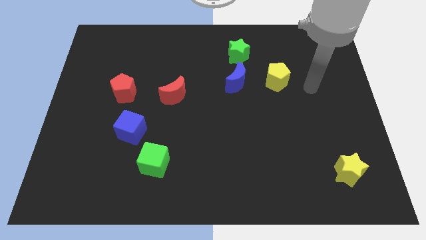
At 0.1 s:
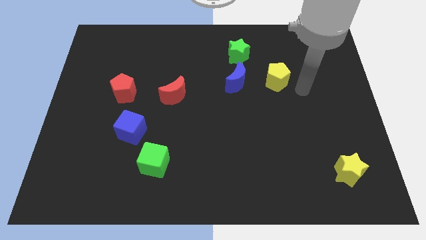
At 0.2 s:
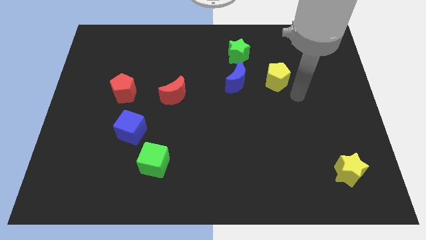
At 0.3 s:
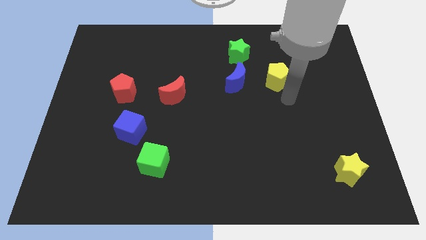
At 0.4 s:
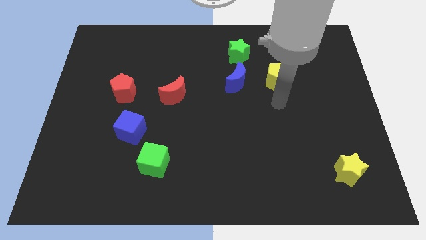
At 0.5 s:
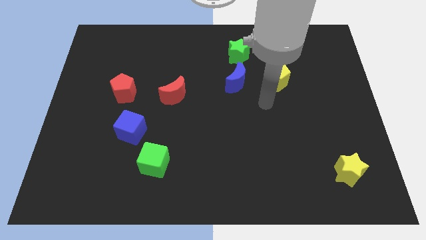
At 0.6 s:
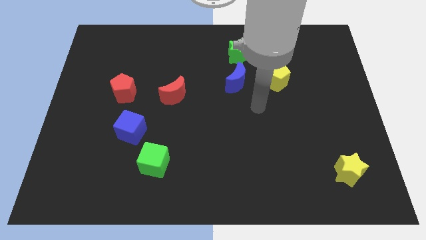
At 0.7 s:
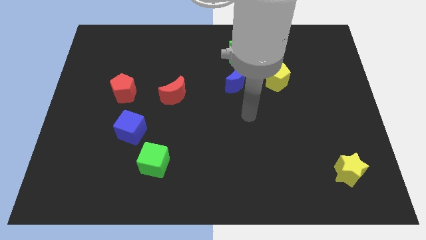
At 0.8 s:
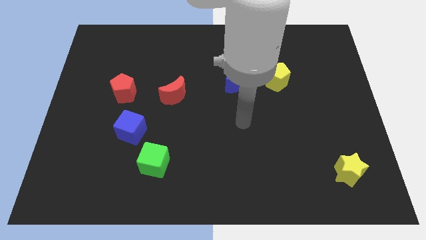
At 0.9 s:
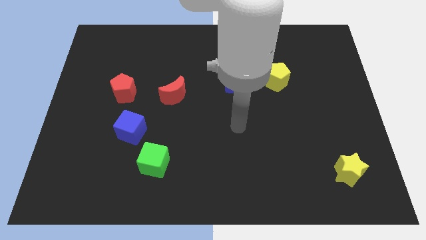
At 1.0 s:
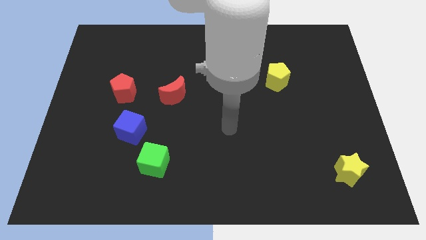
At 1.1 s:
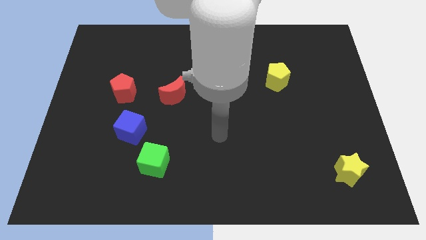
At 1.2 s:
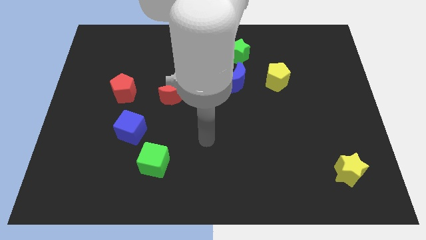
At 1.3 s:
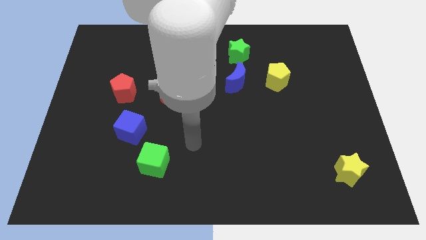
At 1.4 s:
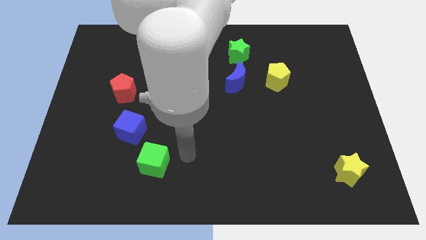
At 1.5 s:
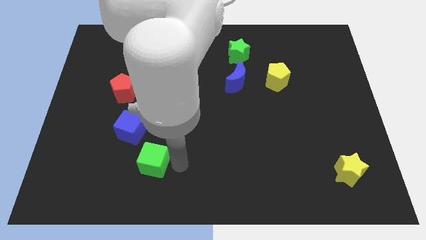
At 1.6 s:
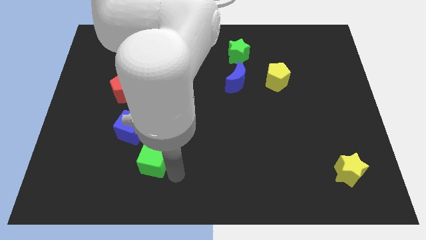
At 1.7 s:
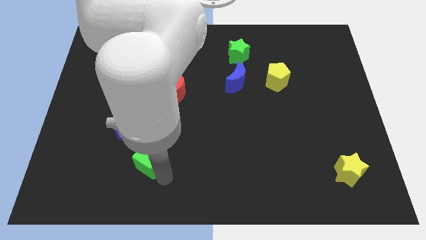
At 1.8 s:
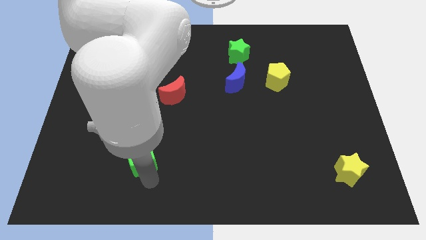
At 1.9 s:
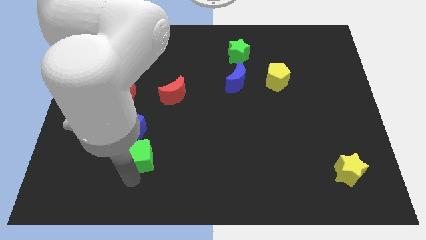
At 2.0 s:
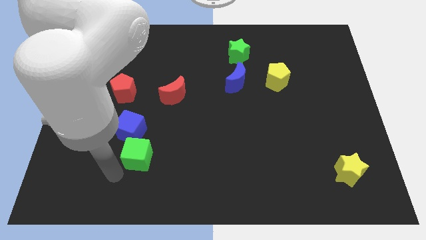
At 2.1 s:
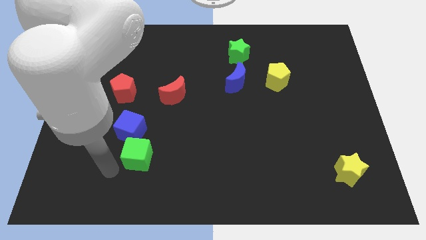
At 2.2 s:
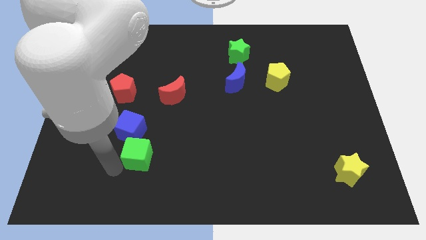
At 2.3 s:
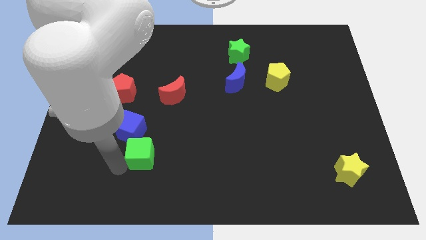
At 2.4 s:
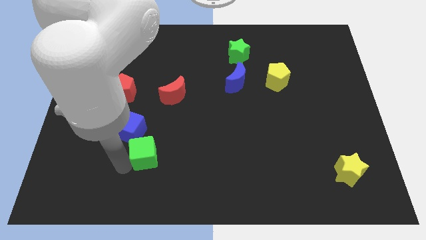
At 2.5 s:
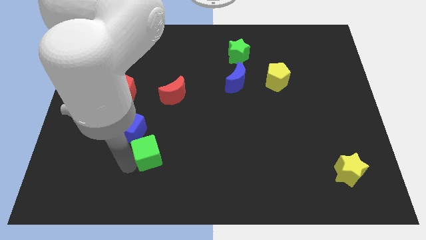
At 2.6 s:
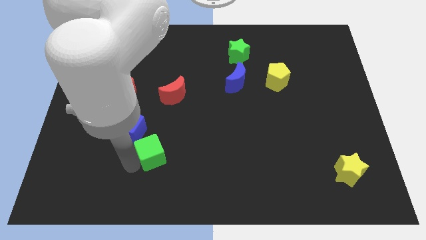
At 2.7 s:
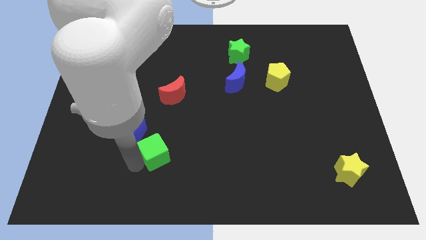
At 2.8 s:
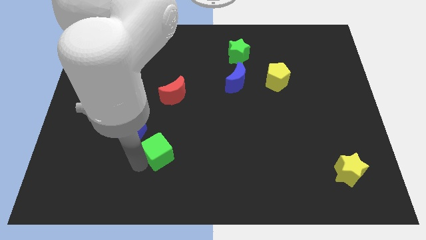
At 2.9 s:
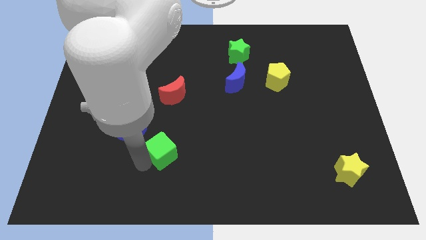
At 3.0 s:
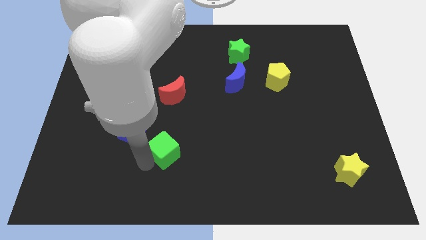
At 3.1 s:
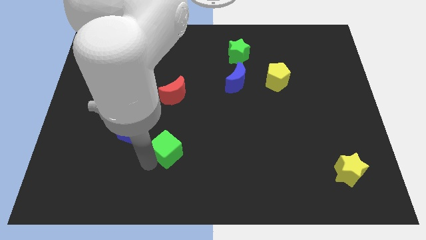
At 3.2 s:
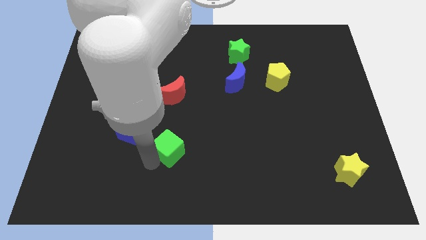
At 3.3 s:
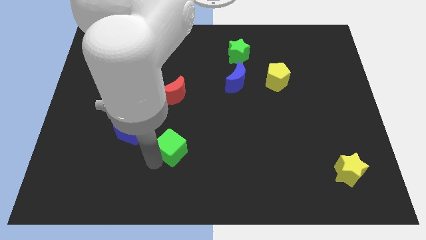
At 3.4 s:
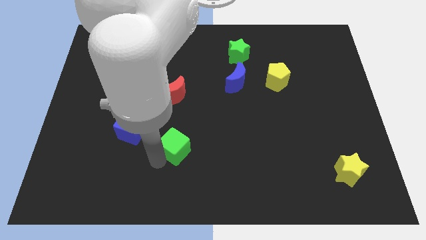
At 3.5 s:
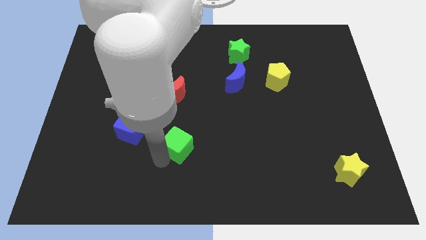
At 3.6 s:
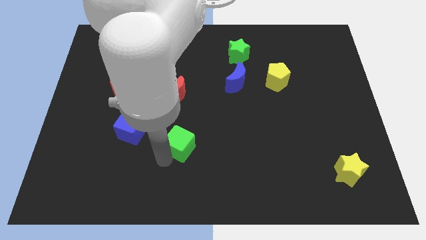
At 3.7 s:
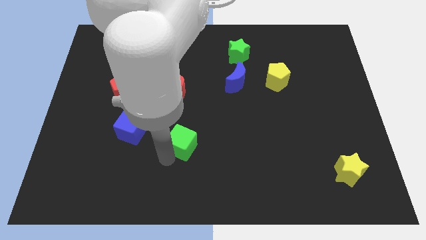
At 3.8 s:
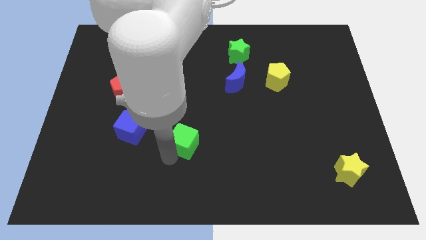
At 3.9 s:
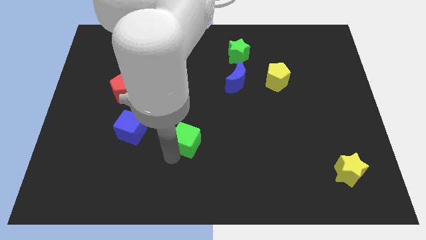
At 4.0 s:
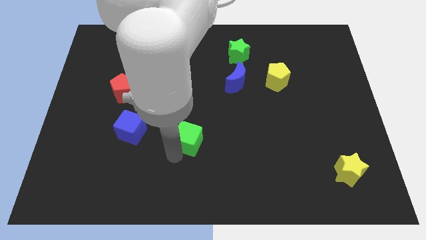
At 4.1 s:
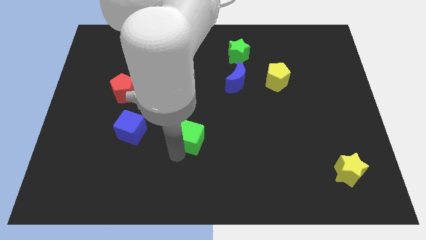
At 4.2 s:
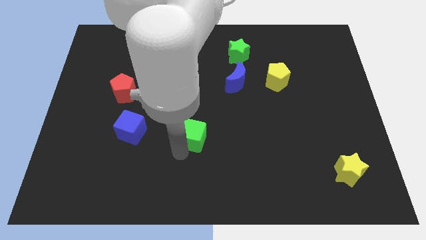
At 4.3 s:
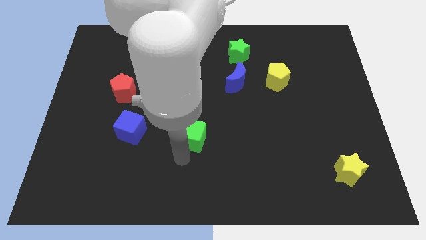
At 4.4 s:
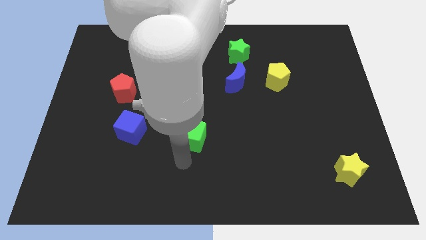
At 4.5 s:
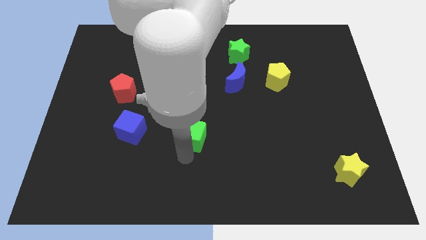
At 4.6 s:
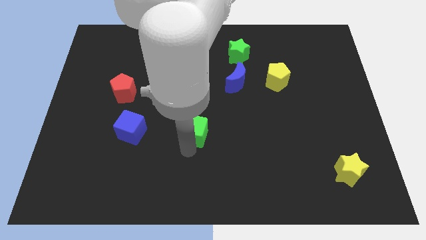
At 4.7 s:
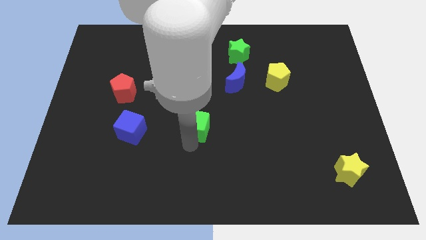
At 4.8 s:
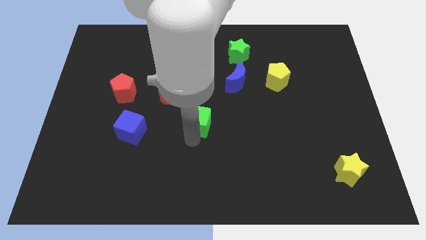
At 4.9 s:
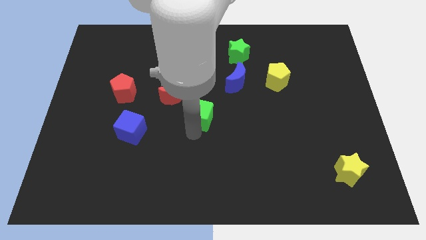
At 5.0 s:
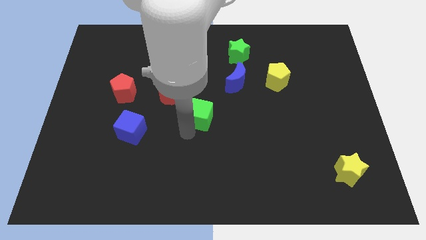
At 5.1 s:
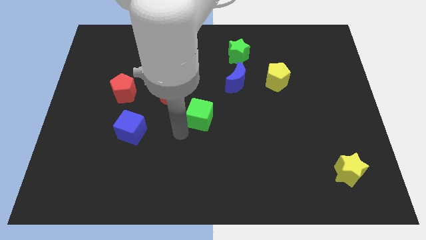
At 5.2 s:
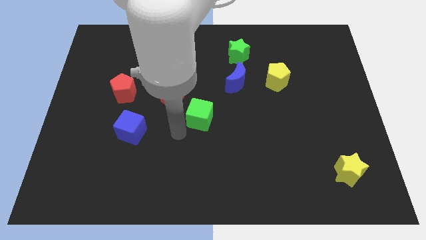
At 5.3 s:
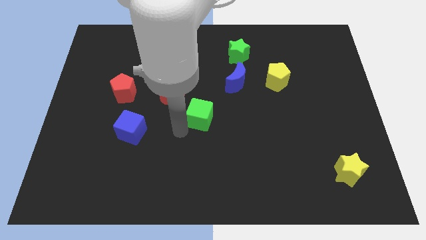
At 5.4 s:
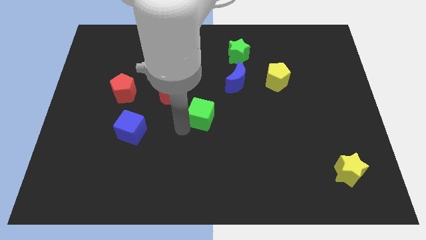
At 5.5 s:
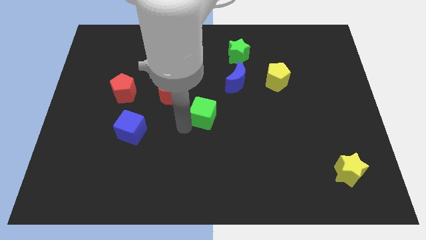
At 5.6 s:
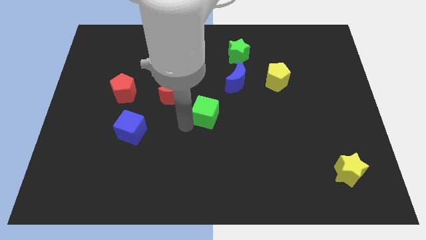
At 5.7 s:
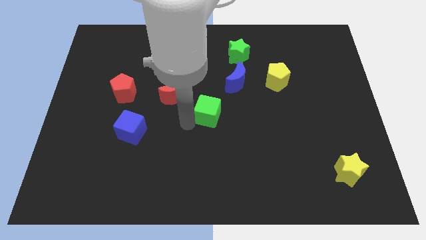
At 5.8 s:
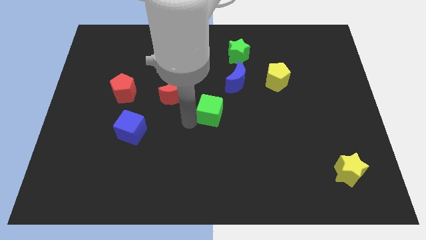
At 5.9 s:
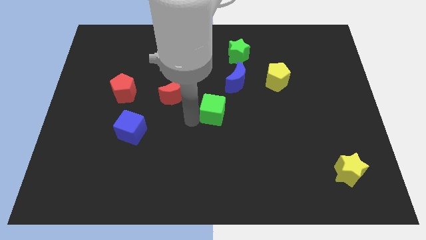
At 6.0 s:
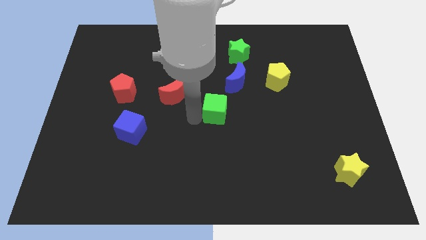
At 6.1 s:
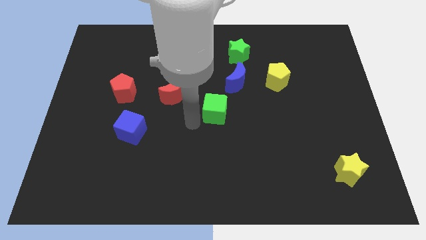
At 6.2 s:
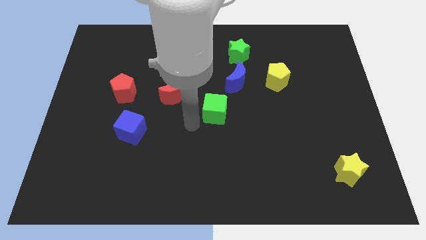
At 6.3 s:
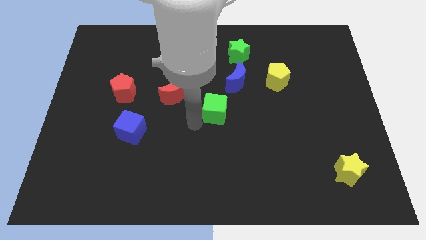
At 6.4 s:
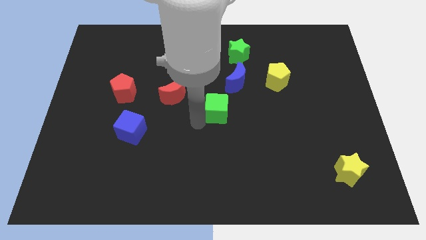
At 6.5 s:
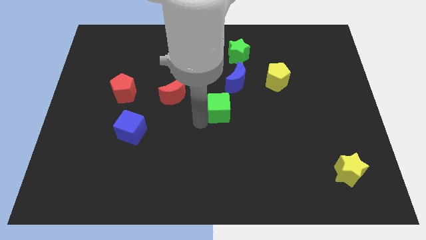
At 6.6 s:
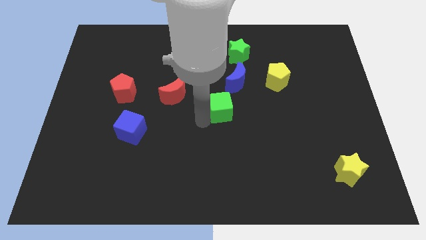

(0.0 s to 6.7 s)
move the green cube up and right

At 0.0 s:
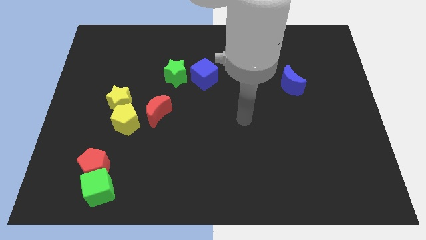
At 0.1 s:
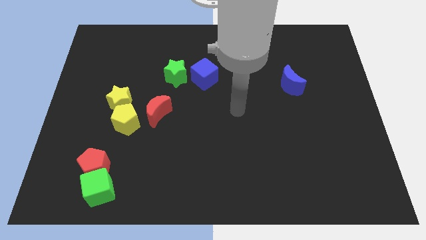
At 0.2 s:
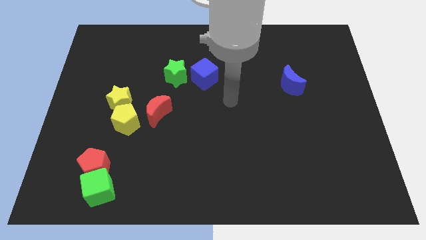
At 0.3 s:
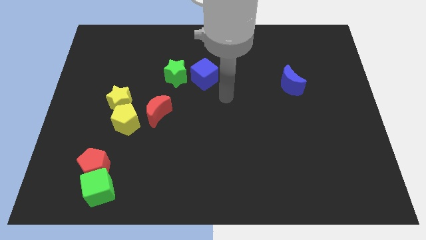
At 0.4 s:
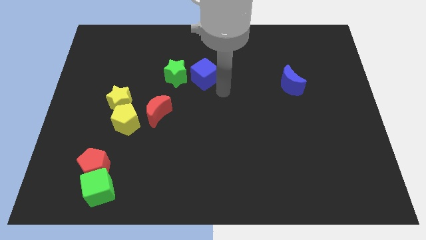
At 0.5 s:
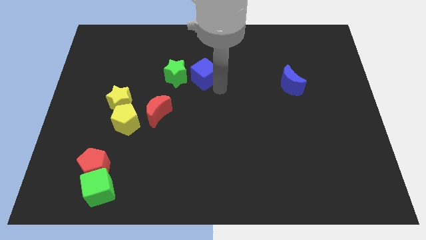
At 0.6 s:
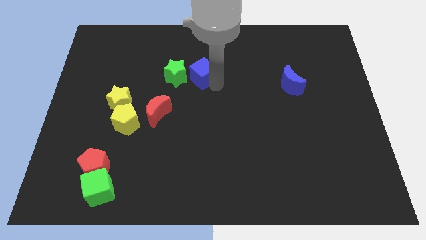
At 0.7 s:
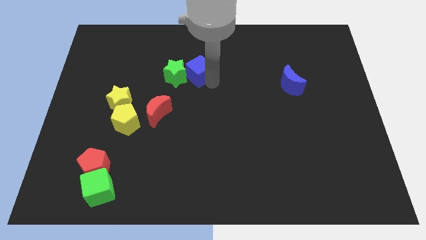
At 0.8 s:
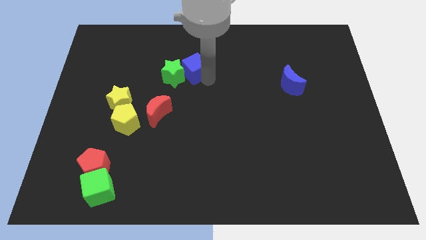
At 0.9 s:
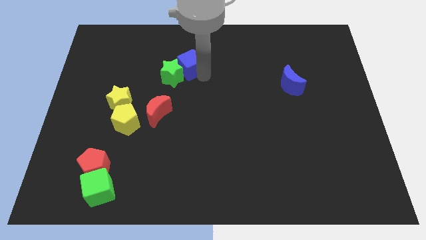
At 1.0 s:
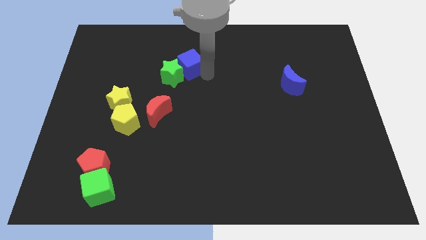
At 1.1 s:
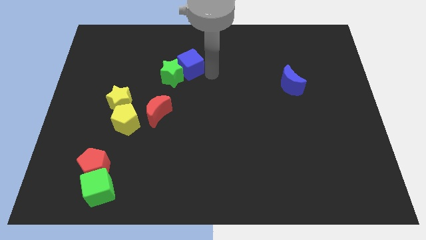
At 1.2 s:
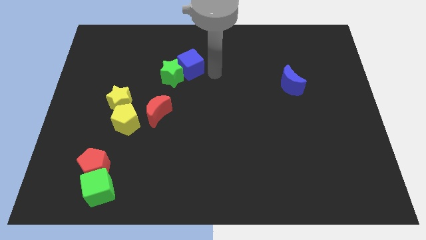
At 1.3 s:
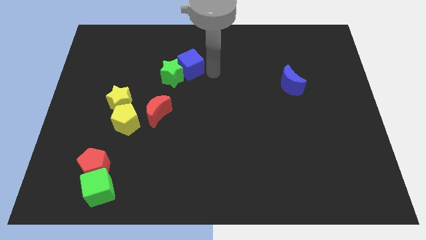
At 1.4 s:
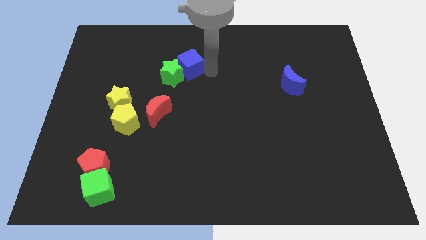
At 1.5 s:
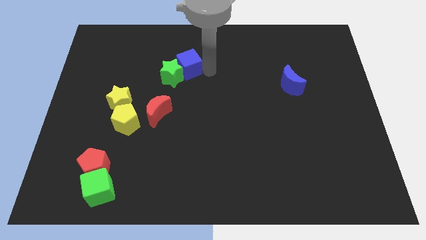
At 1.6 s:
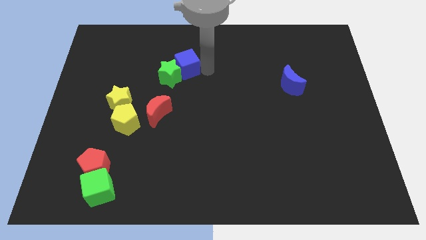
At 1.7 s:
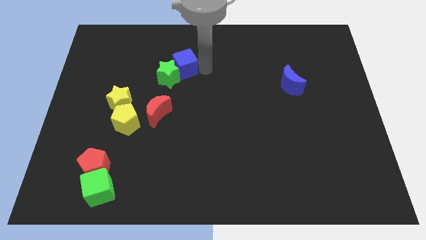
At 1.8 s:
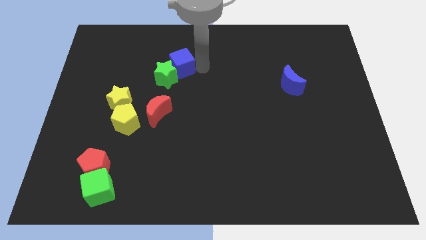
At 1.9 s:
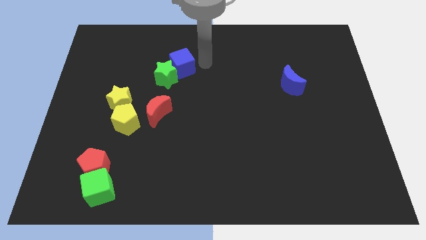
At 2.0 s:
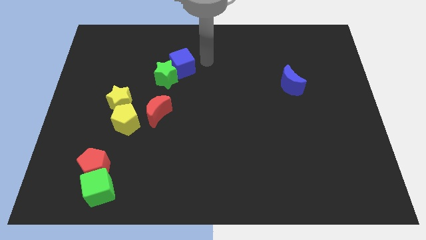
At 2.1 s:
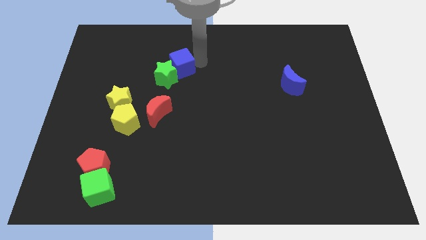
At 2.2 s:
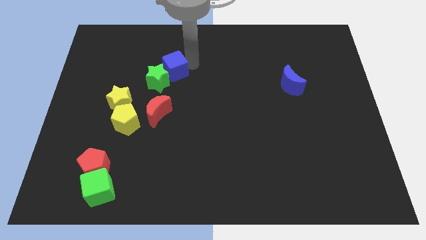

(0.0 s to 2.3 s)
move the blue cube left a little
